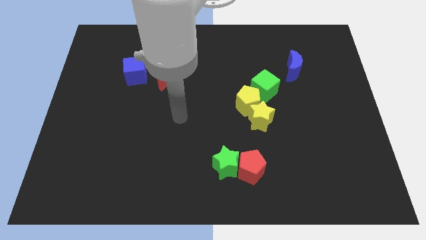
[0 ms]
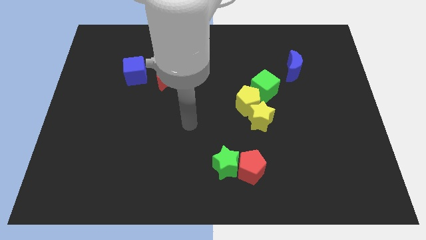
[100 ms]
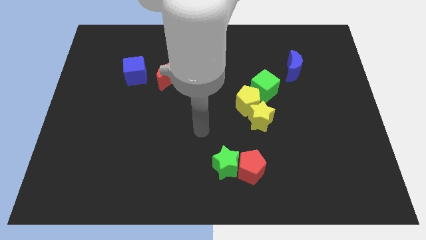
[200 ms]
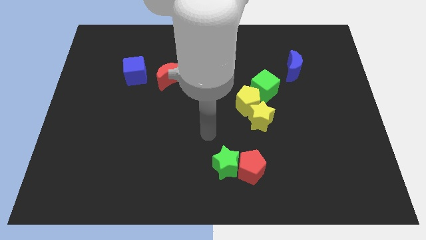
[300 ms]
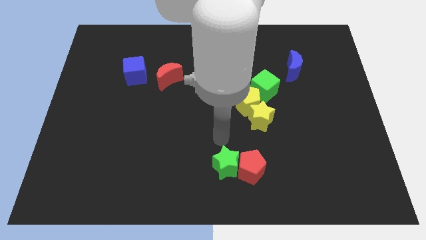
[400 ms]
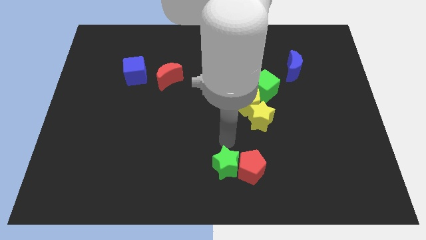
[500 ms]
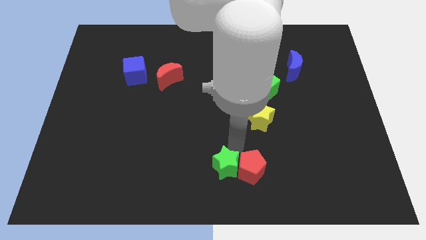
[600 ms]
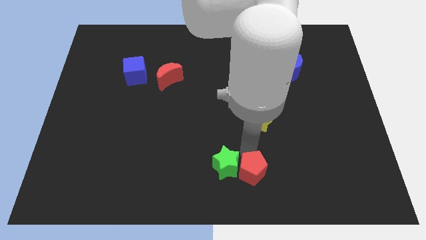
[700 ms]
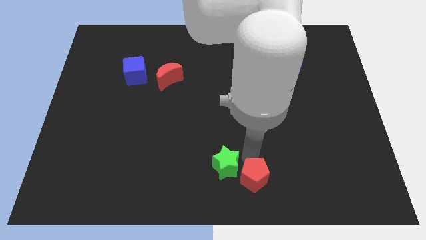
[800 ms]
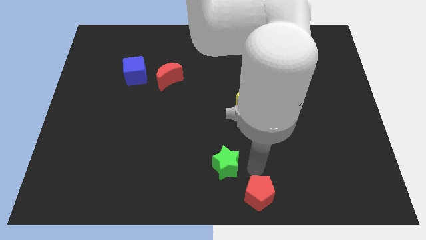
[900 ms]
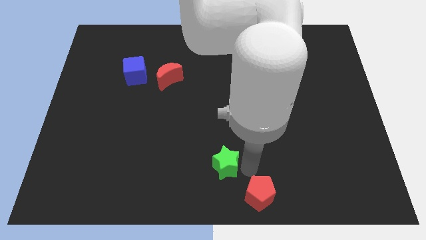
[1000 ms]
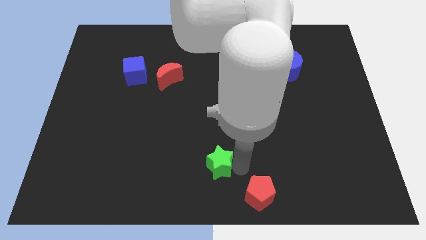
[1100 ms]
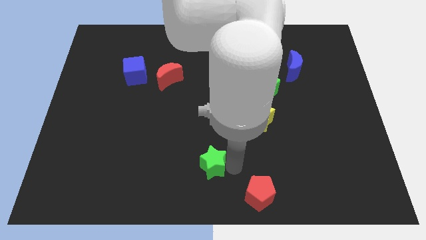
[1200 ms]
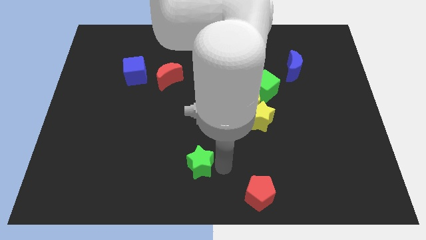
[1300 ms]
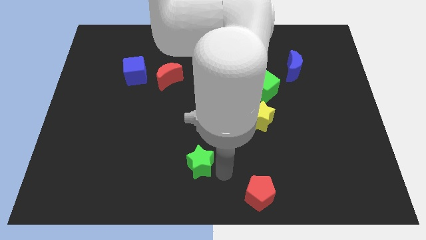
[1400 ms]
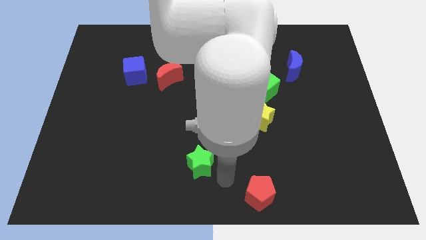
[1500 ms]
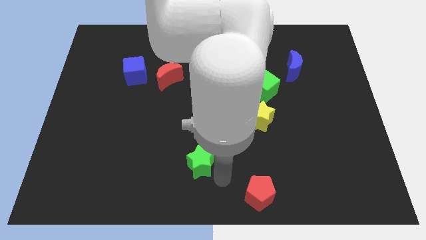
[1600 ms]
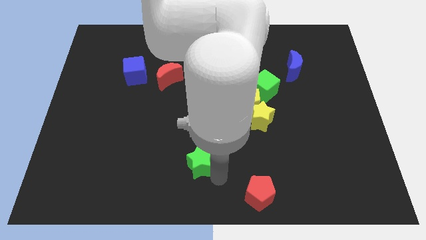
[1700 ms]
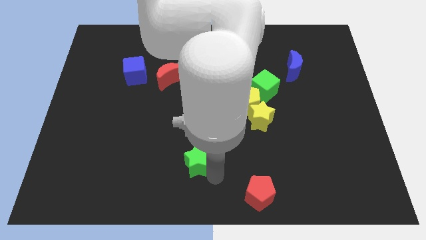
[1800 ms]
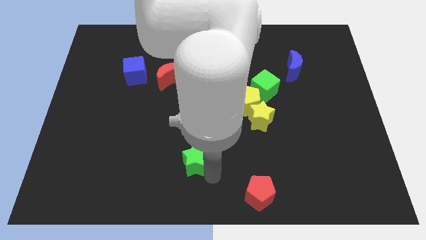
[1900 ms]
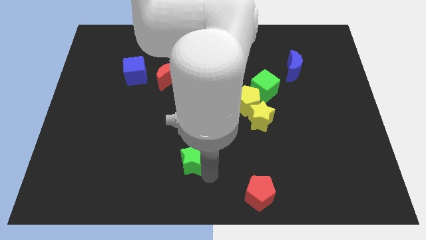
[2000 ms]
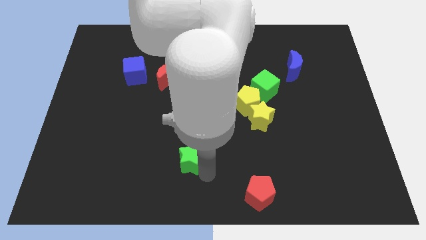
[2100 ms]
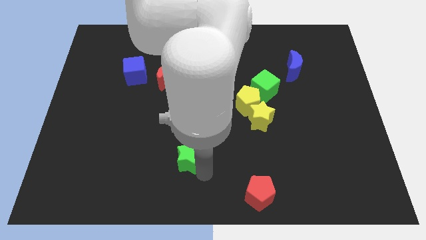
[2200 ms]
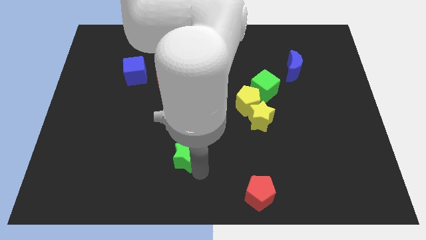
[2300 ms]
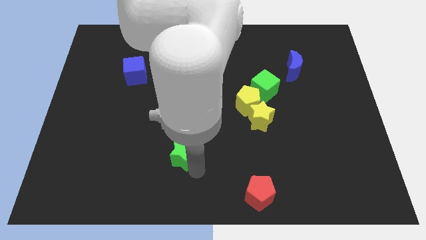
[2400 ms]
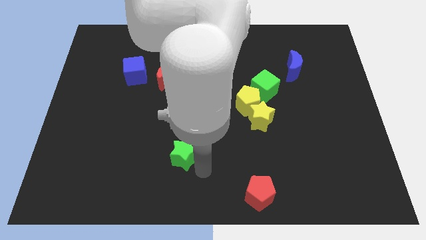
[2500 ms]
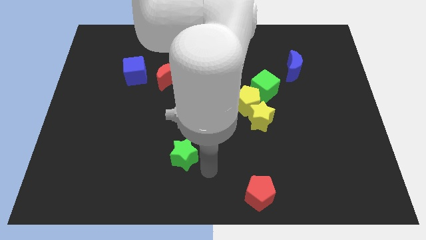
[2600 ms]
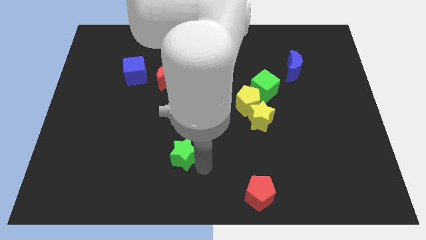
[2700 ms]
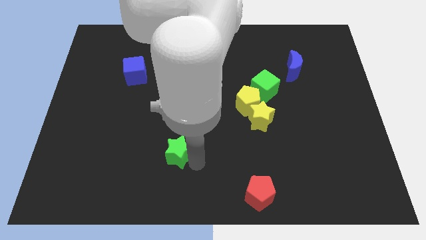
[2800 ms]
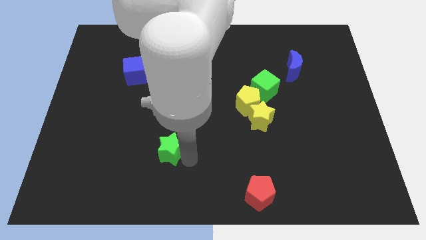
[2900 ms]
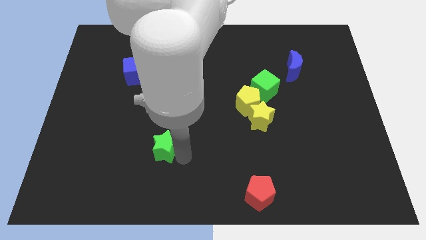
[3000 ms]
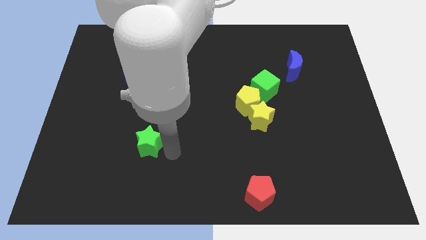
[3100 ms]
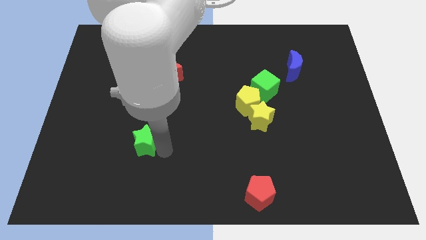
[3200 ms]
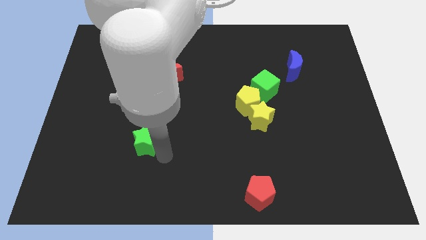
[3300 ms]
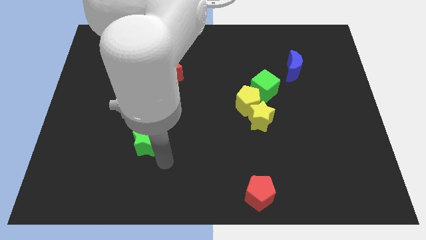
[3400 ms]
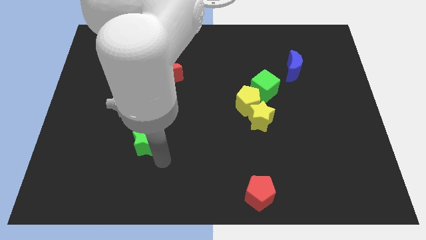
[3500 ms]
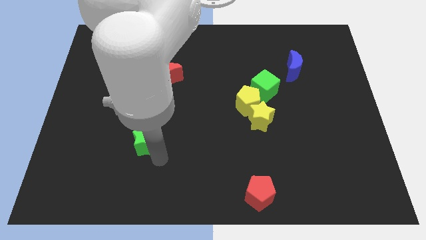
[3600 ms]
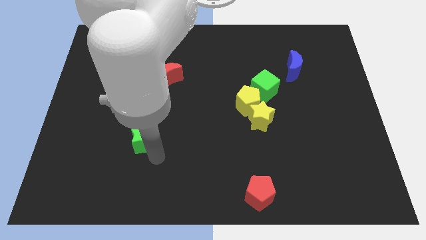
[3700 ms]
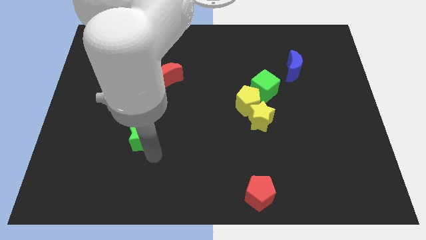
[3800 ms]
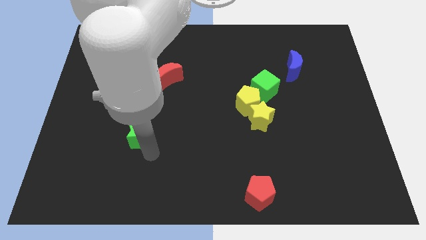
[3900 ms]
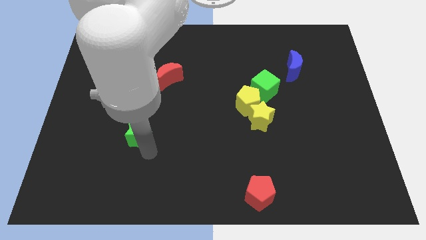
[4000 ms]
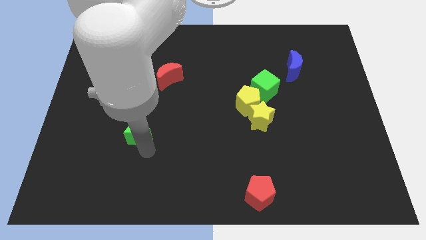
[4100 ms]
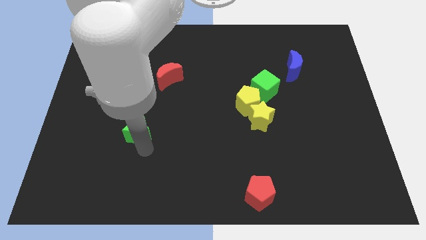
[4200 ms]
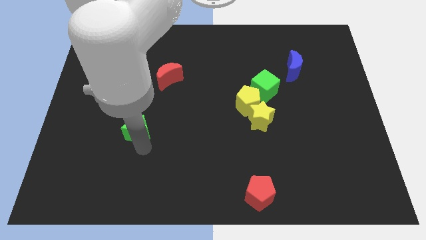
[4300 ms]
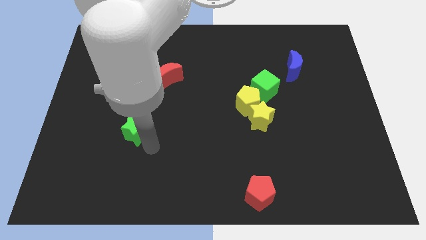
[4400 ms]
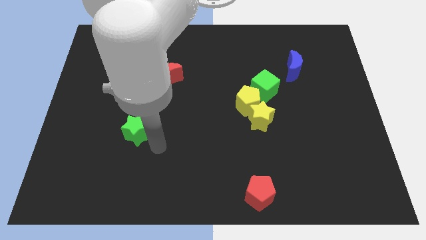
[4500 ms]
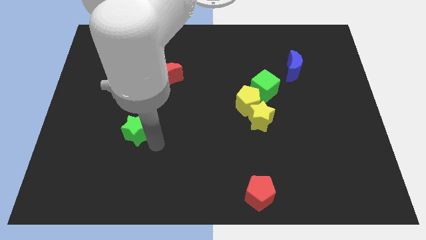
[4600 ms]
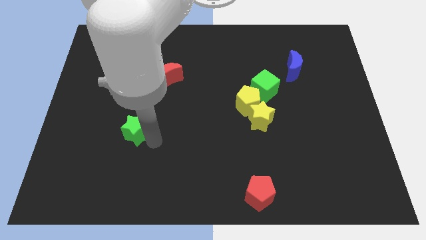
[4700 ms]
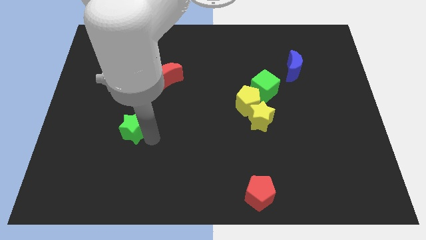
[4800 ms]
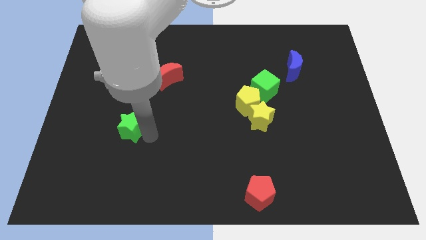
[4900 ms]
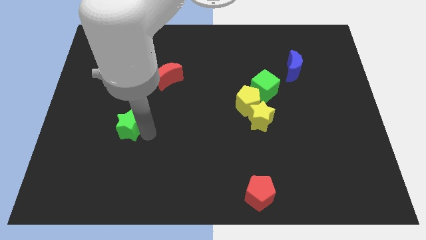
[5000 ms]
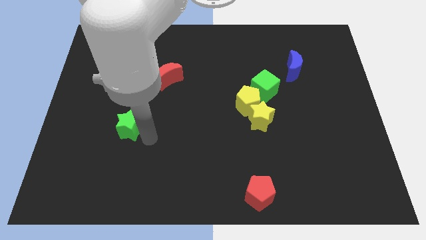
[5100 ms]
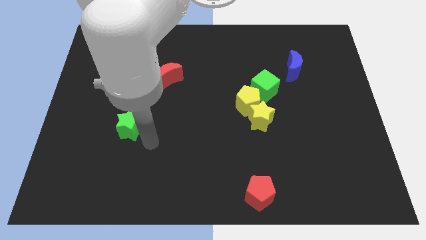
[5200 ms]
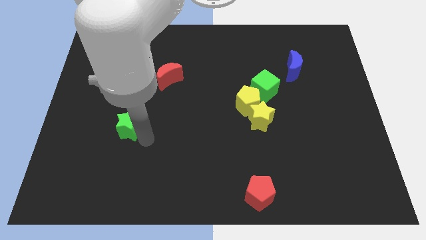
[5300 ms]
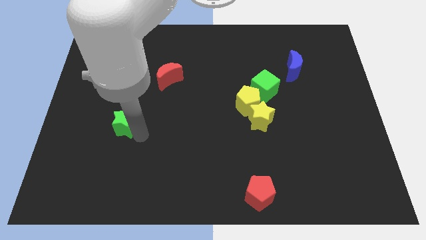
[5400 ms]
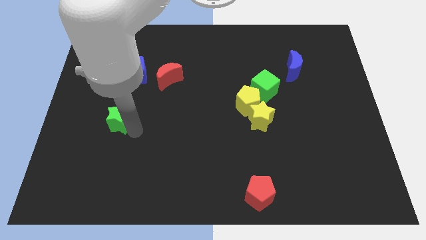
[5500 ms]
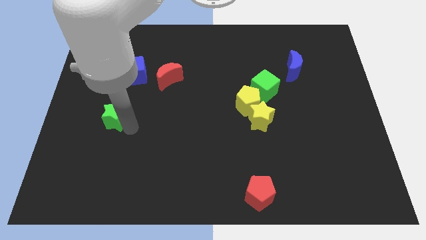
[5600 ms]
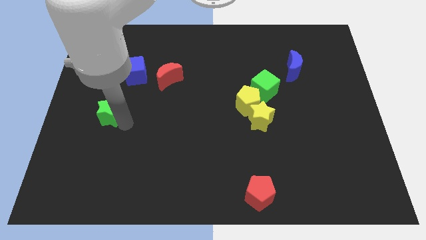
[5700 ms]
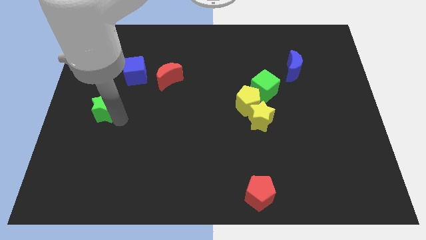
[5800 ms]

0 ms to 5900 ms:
put the green star to the center left

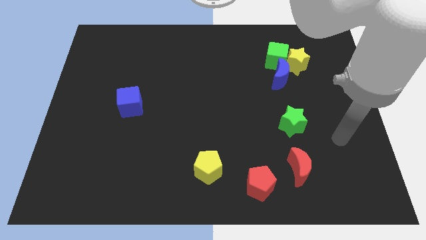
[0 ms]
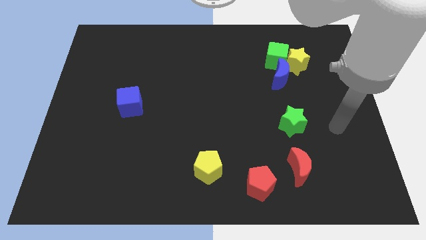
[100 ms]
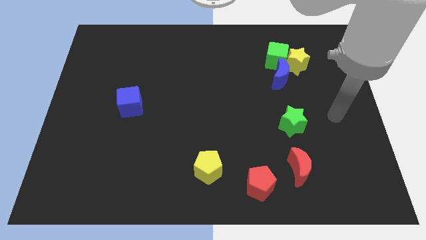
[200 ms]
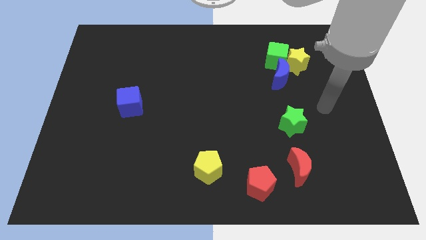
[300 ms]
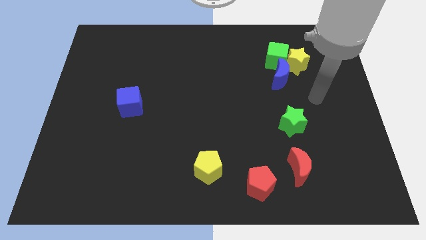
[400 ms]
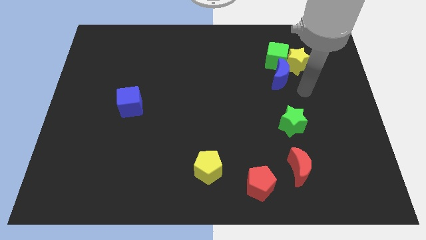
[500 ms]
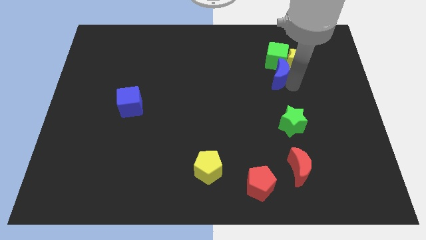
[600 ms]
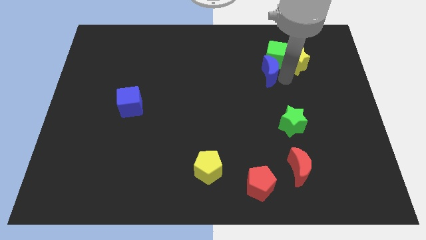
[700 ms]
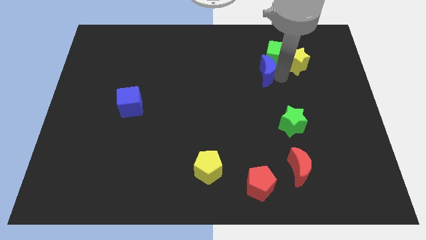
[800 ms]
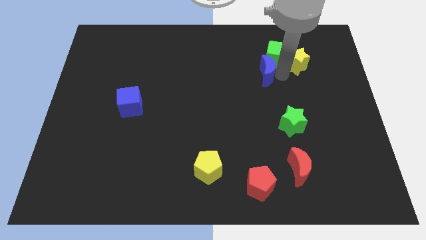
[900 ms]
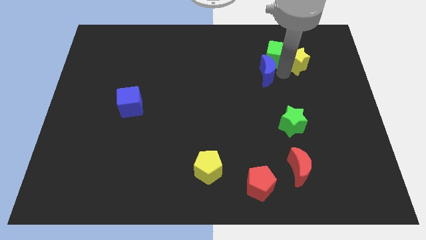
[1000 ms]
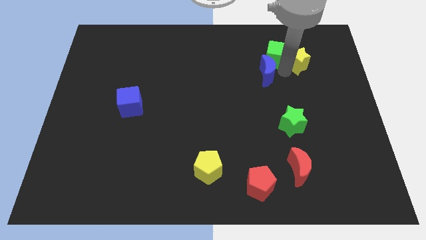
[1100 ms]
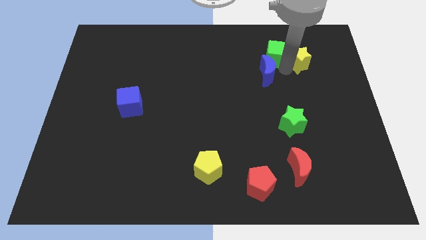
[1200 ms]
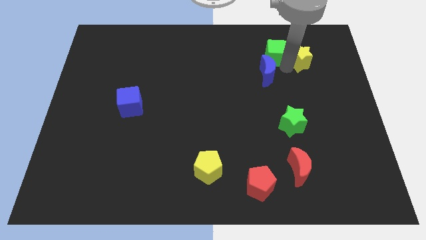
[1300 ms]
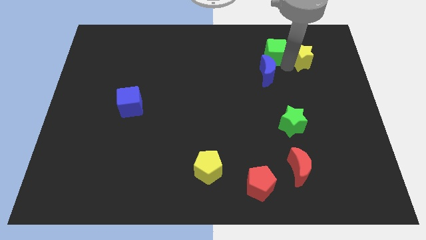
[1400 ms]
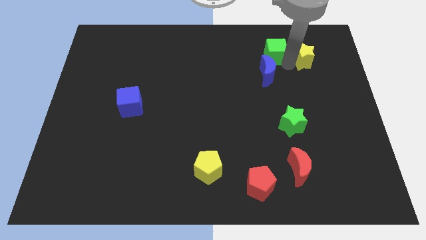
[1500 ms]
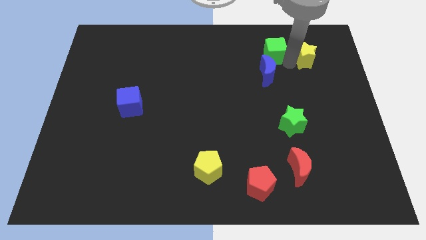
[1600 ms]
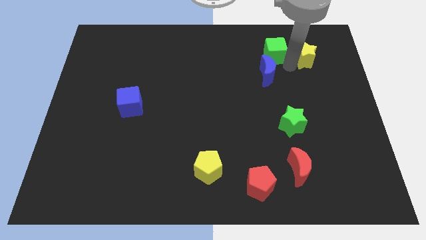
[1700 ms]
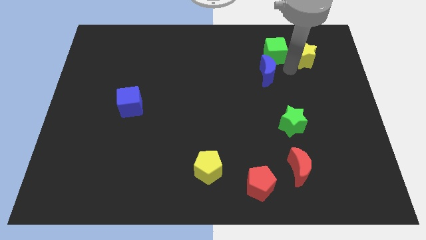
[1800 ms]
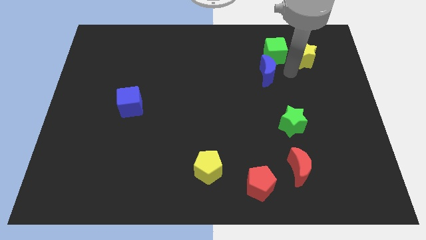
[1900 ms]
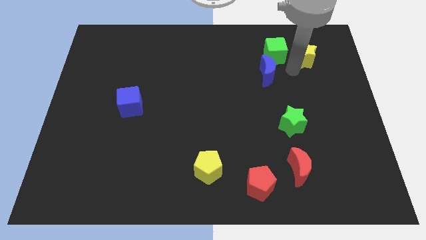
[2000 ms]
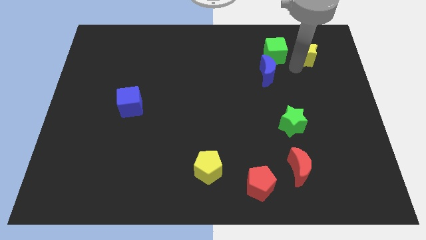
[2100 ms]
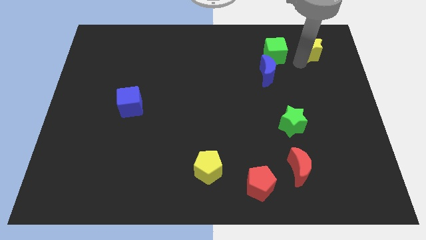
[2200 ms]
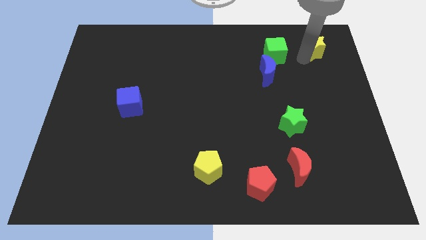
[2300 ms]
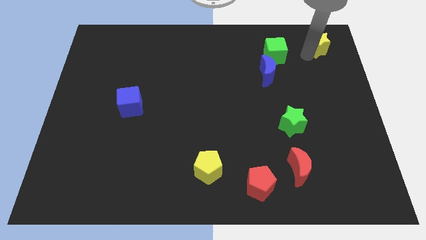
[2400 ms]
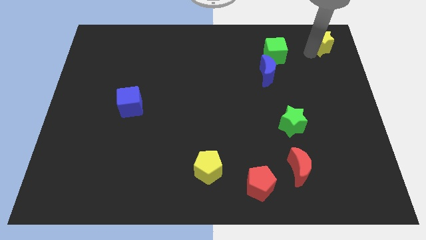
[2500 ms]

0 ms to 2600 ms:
slide the yellow star to the top right
